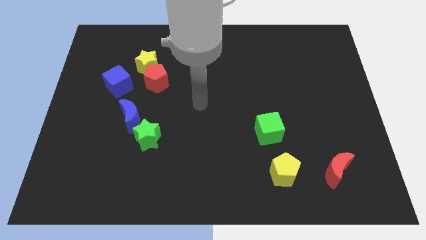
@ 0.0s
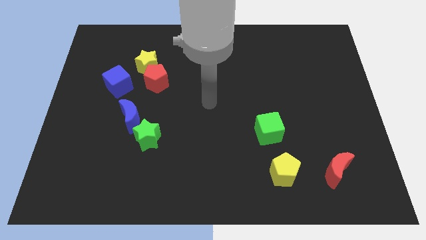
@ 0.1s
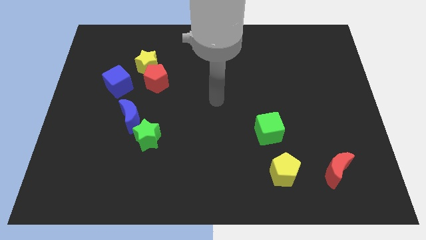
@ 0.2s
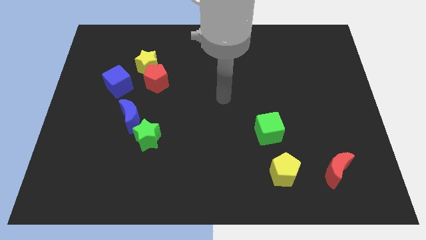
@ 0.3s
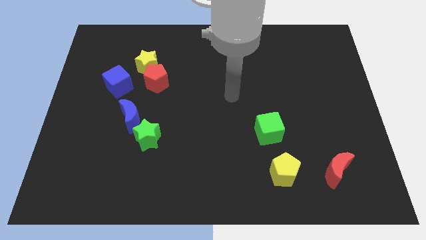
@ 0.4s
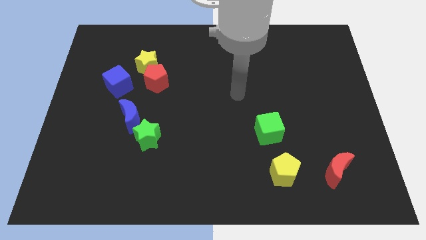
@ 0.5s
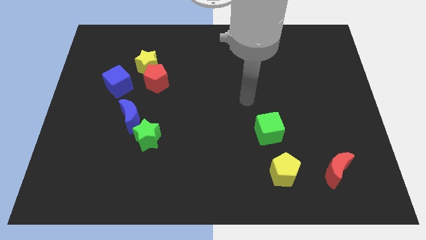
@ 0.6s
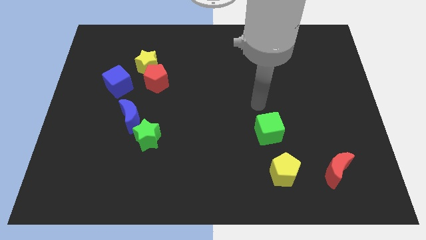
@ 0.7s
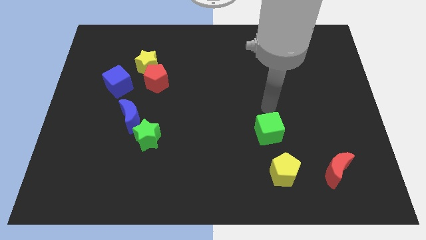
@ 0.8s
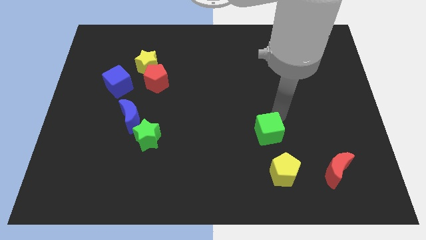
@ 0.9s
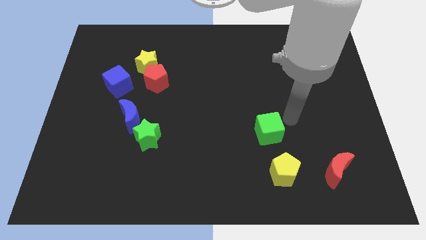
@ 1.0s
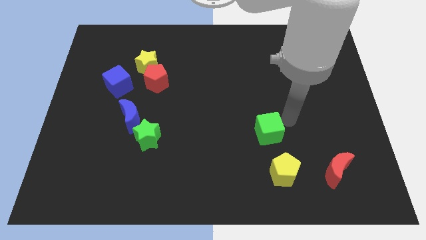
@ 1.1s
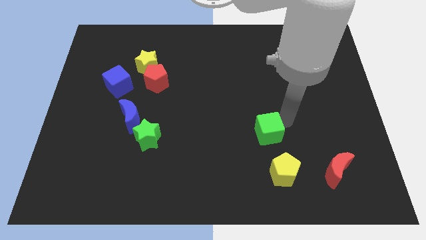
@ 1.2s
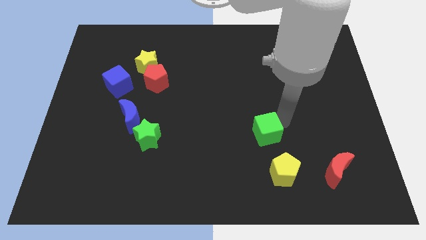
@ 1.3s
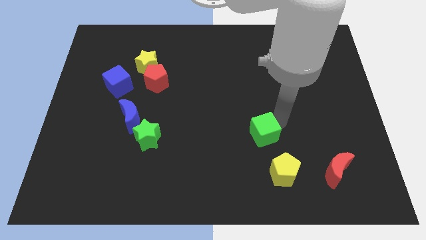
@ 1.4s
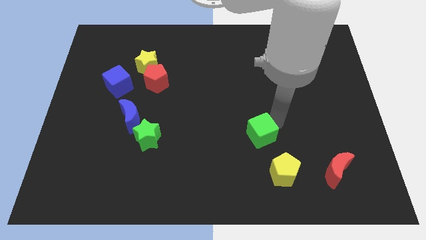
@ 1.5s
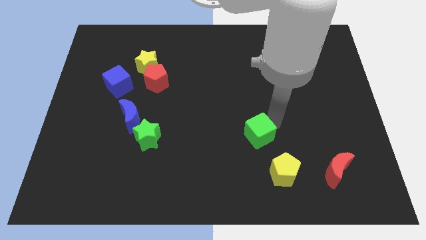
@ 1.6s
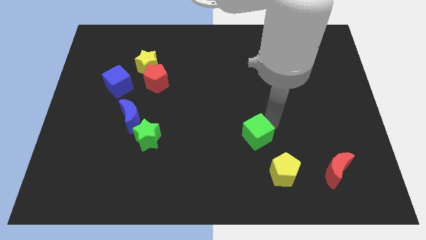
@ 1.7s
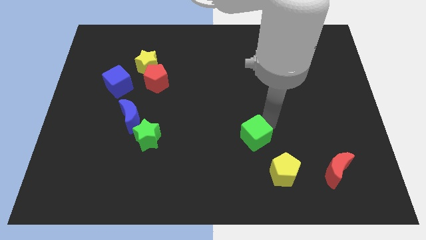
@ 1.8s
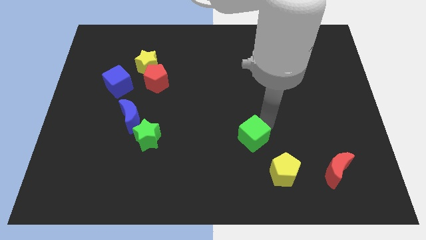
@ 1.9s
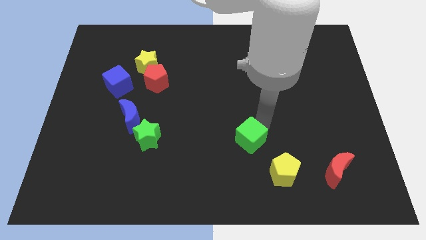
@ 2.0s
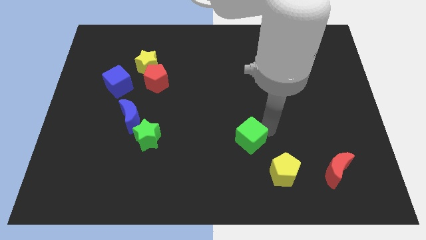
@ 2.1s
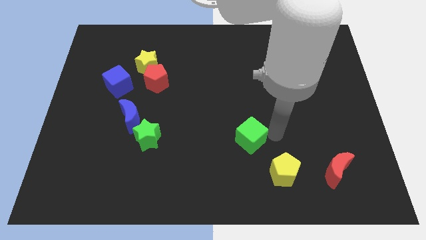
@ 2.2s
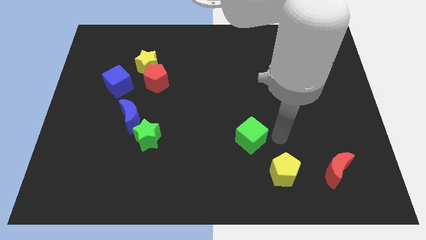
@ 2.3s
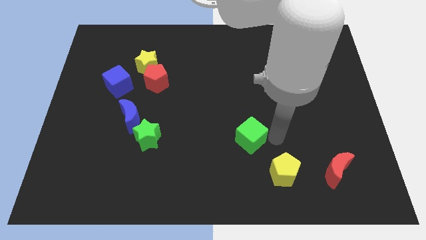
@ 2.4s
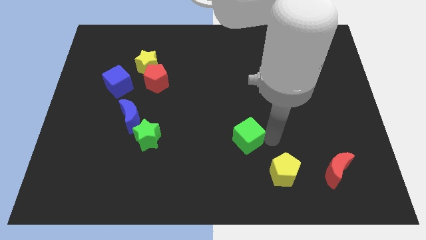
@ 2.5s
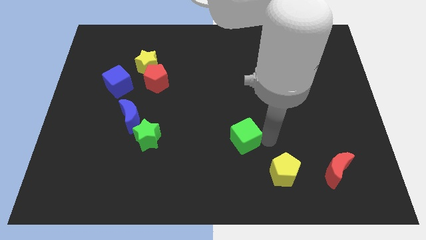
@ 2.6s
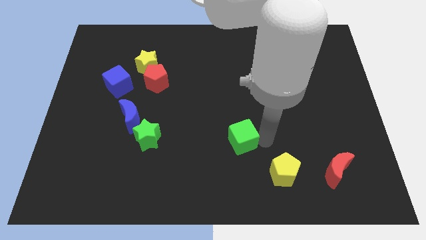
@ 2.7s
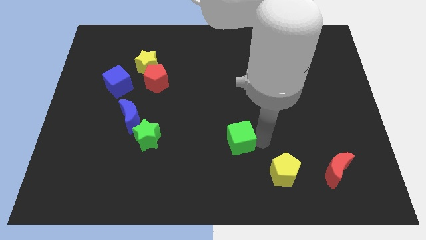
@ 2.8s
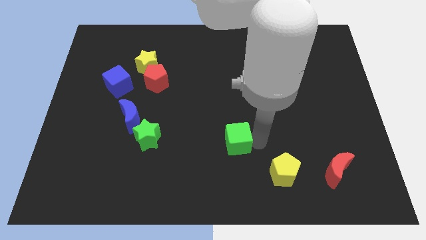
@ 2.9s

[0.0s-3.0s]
push the green cube a little to the left

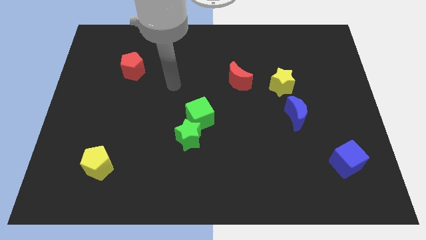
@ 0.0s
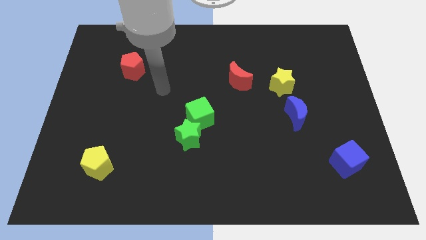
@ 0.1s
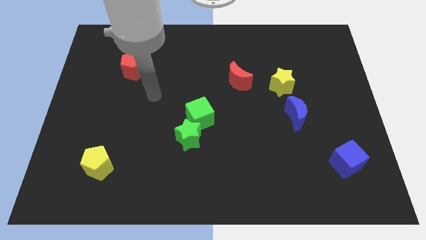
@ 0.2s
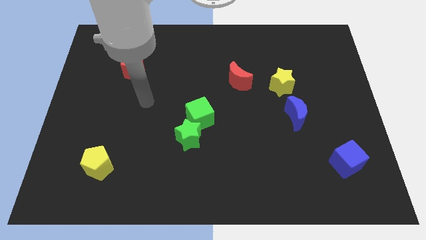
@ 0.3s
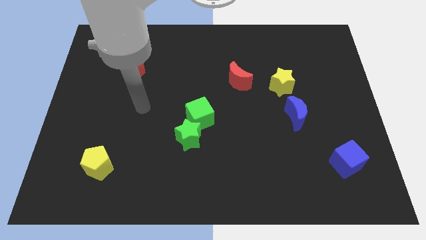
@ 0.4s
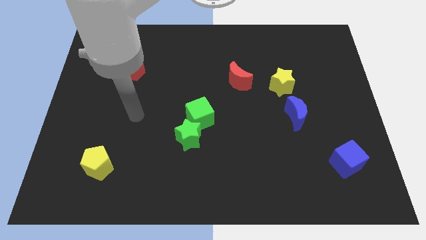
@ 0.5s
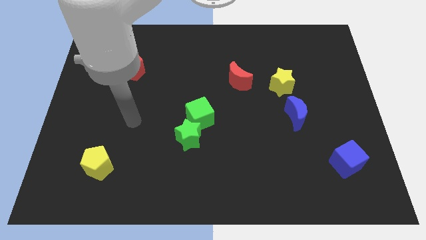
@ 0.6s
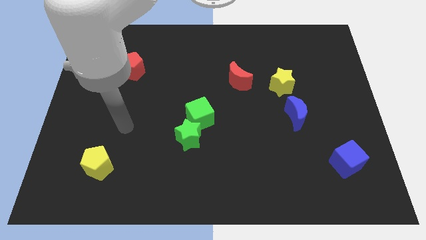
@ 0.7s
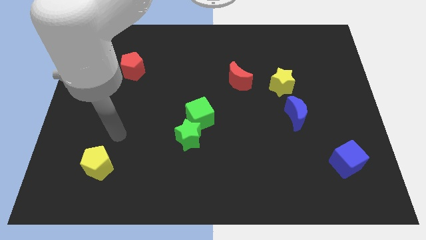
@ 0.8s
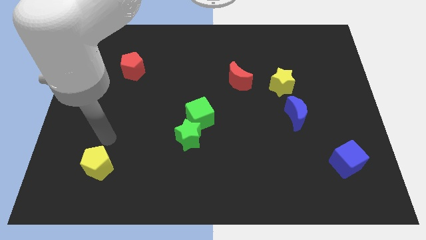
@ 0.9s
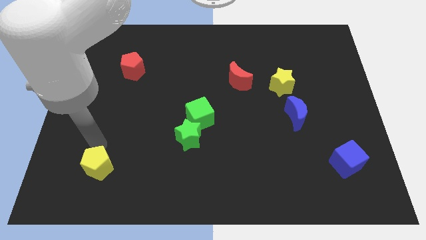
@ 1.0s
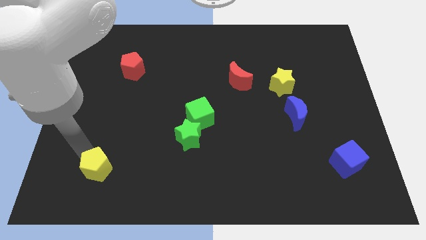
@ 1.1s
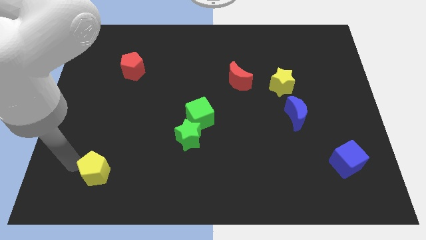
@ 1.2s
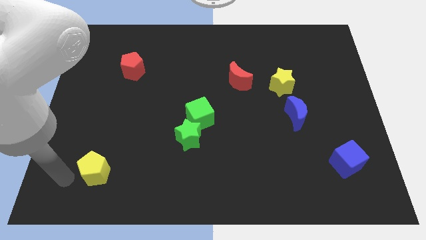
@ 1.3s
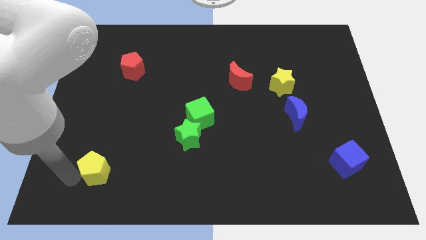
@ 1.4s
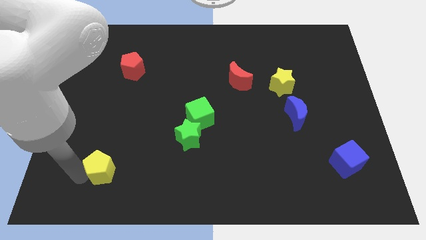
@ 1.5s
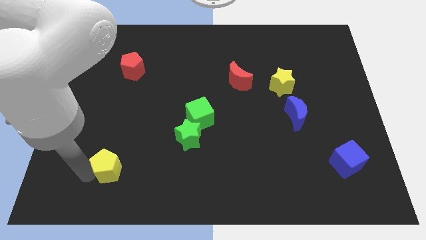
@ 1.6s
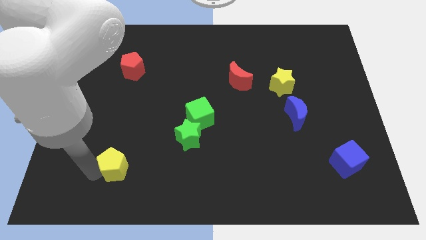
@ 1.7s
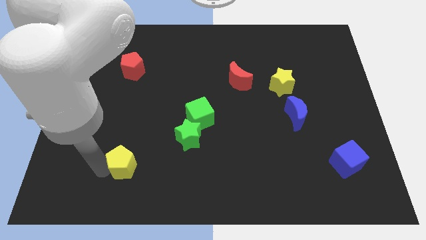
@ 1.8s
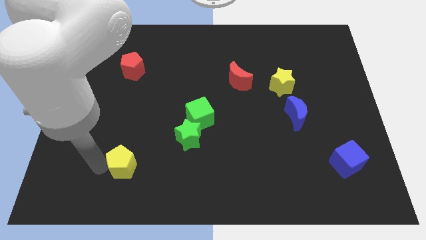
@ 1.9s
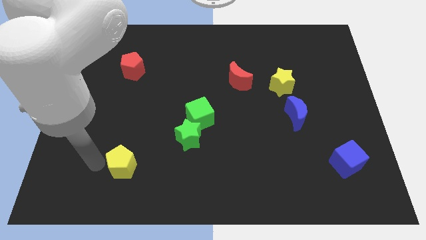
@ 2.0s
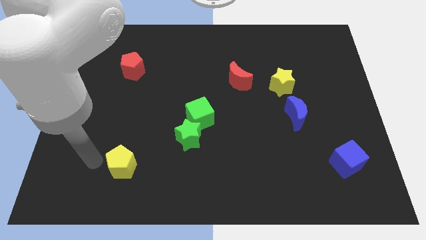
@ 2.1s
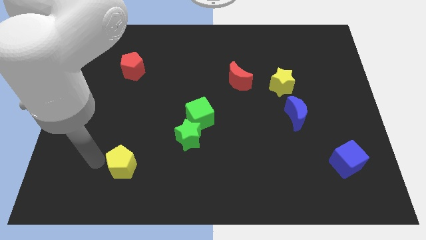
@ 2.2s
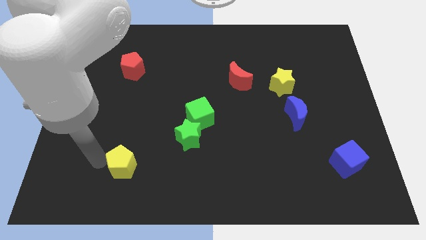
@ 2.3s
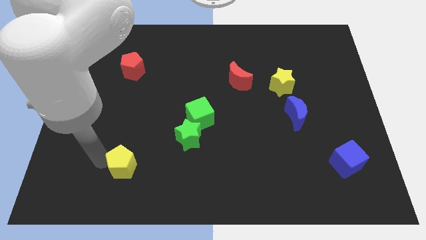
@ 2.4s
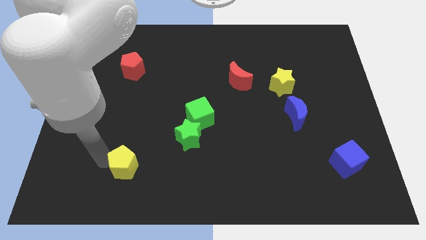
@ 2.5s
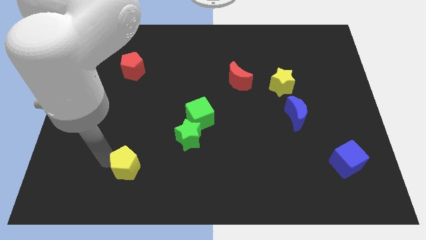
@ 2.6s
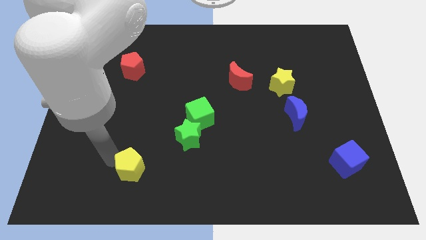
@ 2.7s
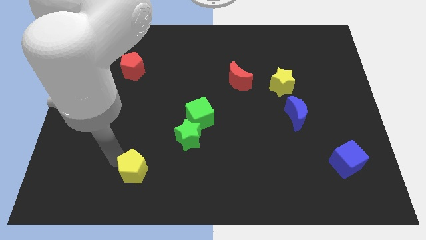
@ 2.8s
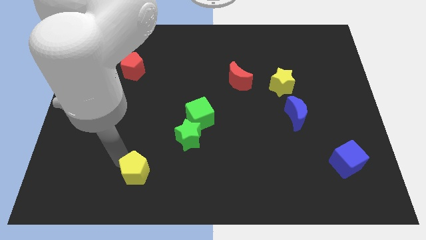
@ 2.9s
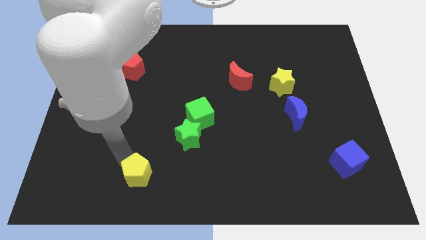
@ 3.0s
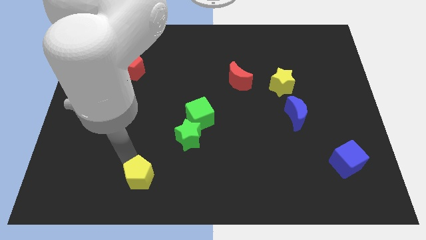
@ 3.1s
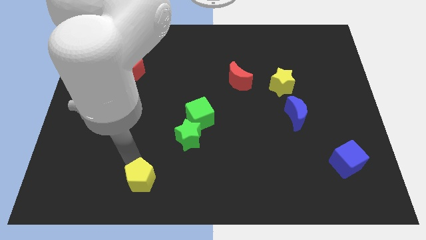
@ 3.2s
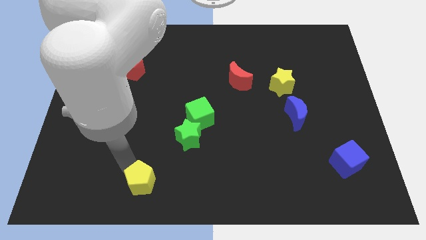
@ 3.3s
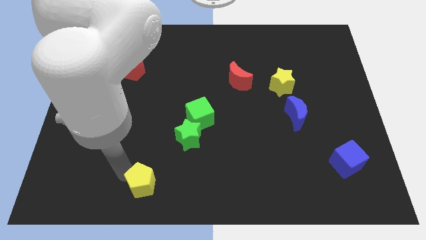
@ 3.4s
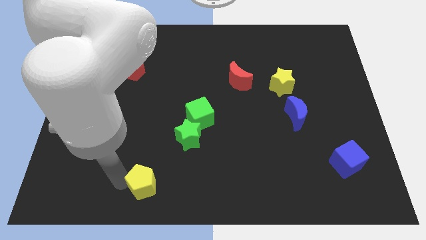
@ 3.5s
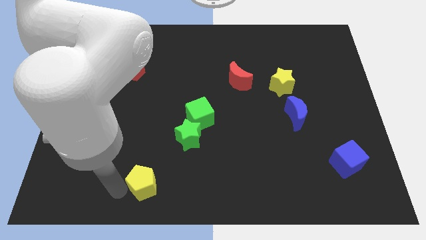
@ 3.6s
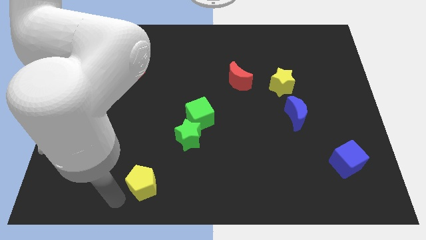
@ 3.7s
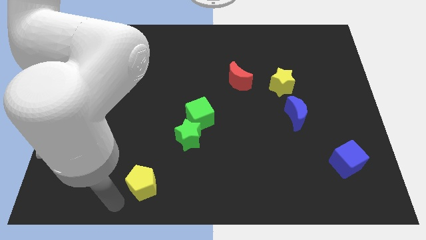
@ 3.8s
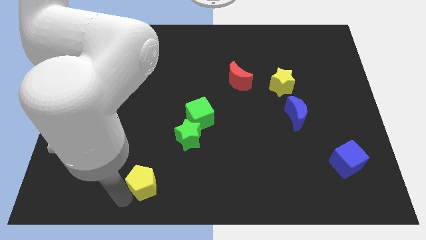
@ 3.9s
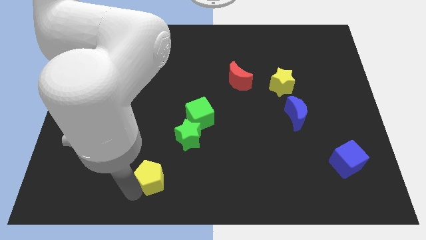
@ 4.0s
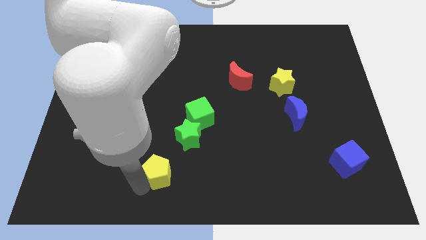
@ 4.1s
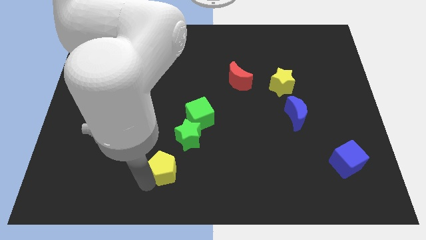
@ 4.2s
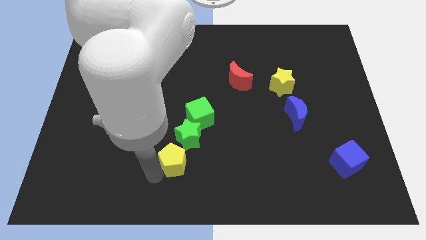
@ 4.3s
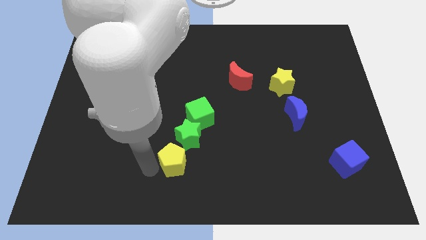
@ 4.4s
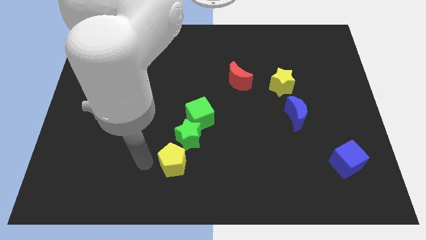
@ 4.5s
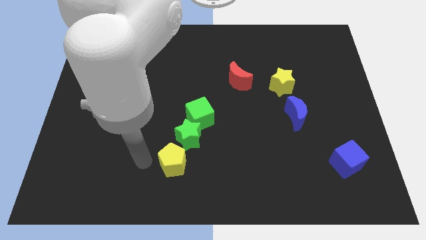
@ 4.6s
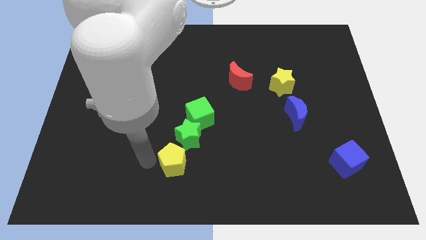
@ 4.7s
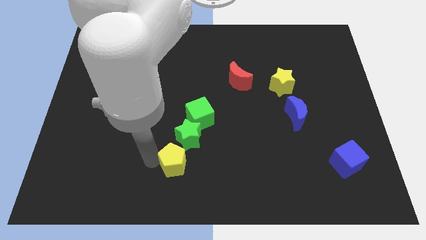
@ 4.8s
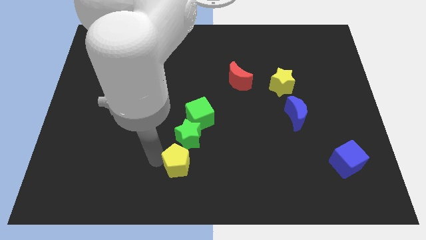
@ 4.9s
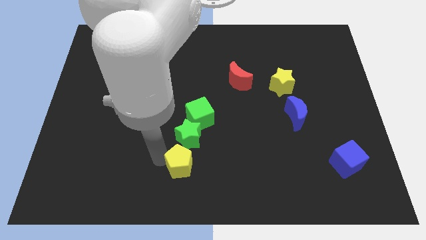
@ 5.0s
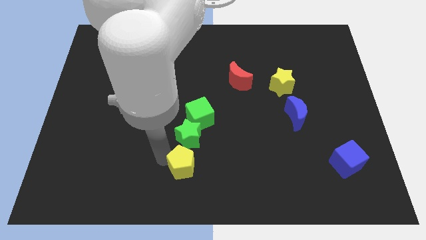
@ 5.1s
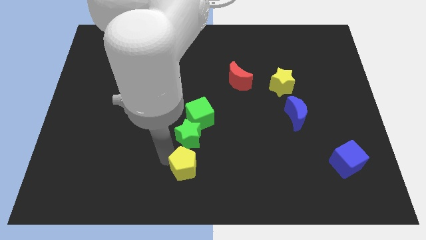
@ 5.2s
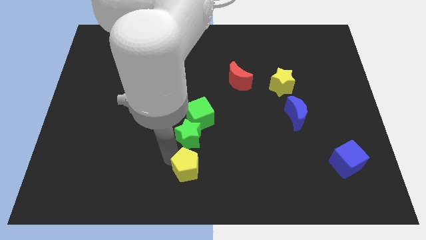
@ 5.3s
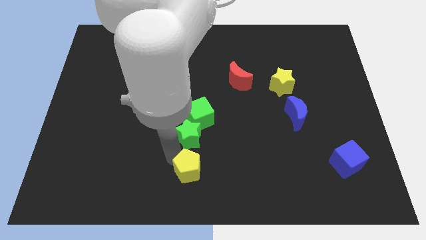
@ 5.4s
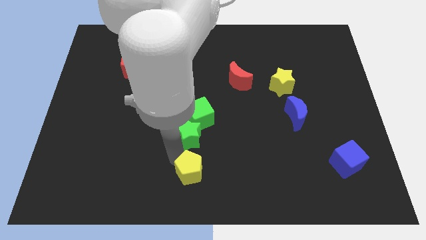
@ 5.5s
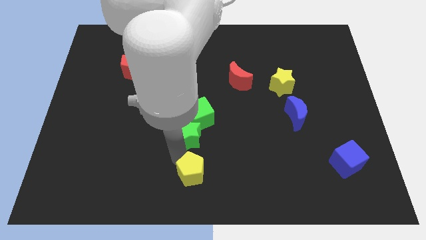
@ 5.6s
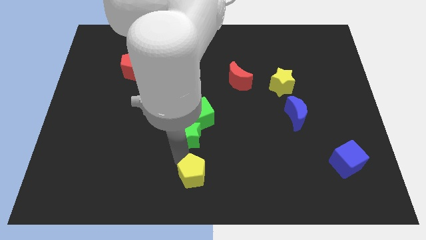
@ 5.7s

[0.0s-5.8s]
slide the yellow pentagon right

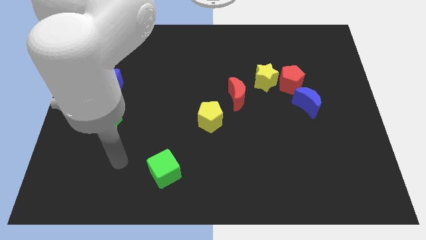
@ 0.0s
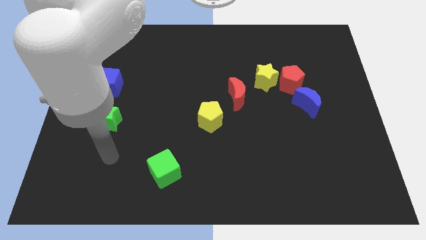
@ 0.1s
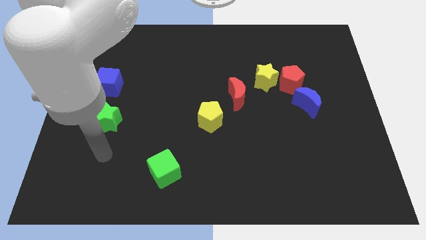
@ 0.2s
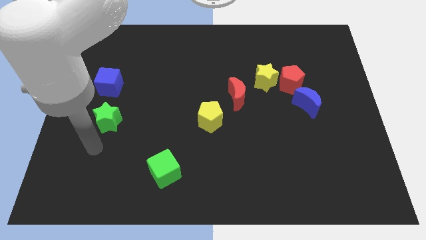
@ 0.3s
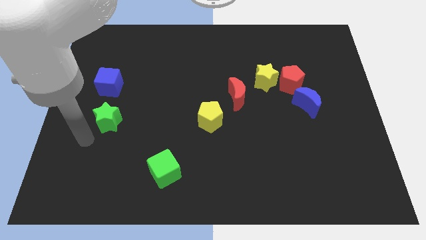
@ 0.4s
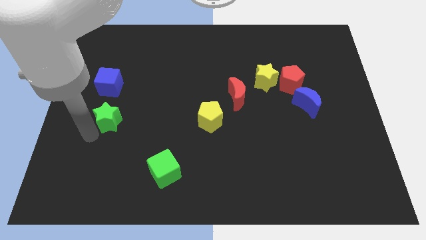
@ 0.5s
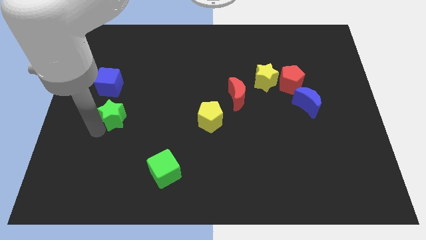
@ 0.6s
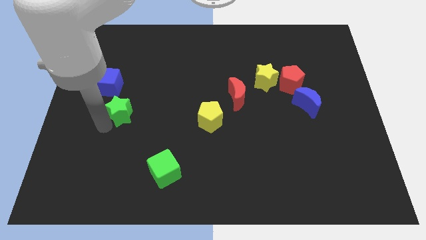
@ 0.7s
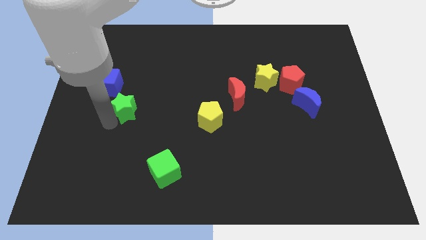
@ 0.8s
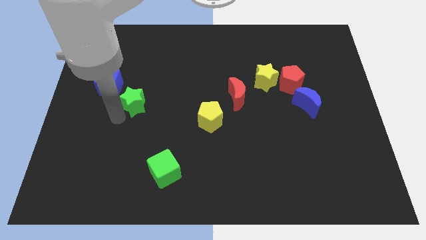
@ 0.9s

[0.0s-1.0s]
push the green star up and to the right diagonally a bit
